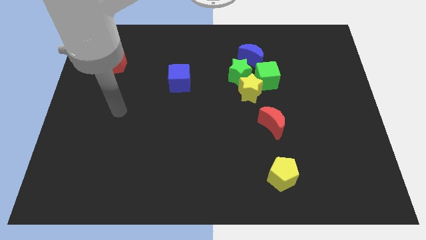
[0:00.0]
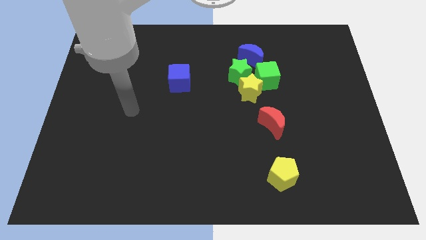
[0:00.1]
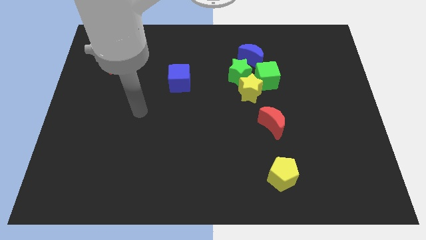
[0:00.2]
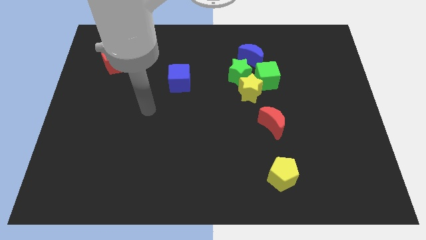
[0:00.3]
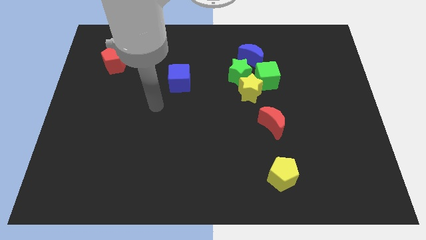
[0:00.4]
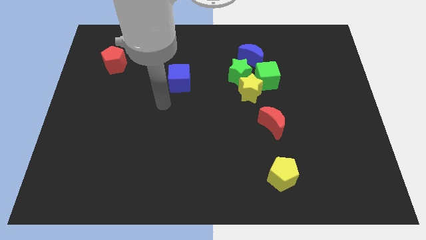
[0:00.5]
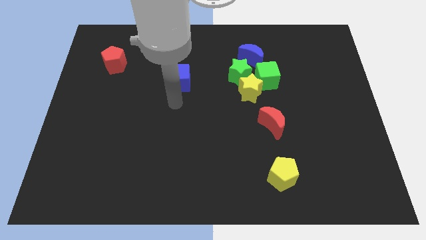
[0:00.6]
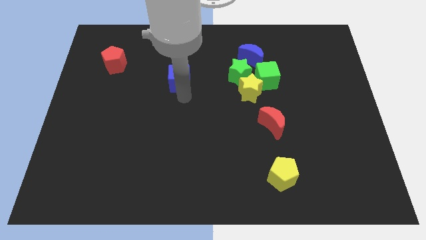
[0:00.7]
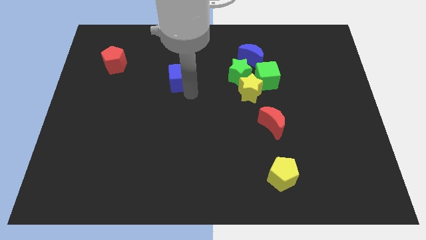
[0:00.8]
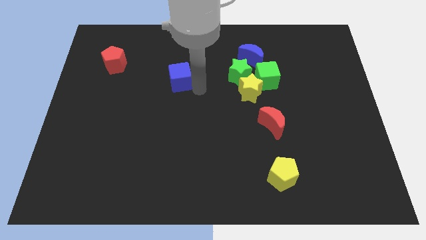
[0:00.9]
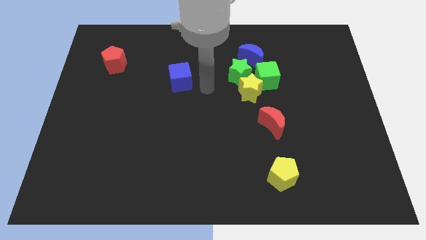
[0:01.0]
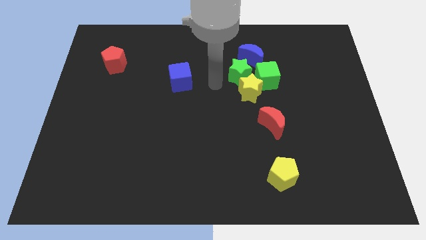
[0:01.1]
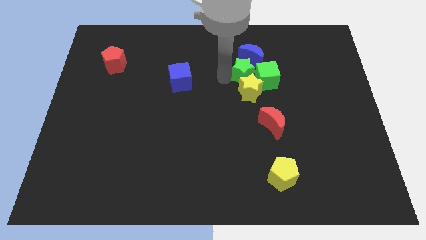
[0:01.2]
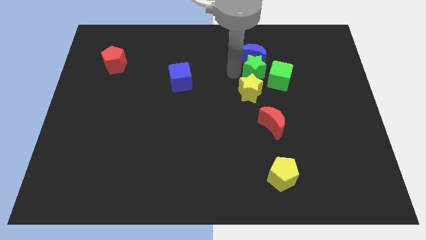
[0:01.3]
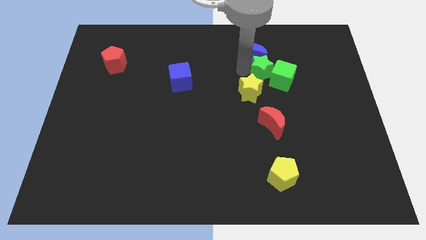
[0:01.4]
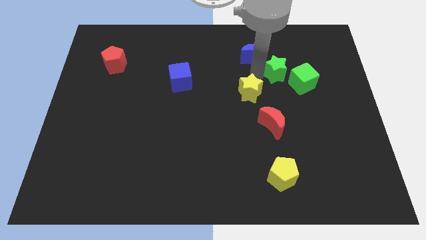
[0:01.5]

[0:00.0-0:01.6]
move the yellow star away from the green star and green cube

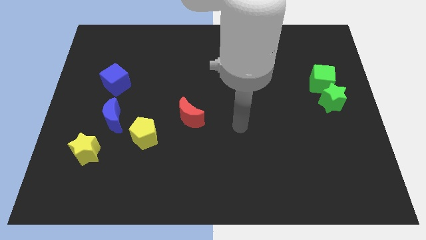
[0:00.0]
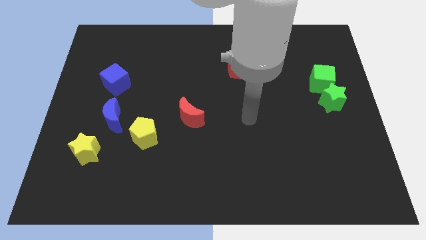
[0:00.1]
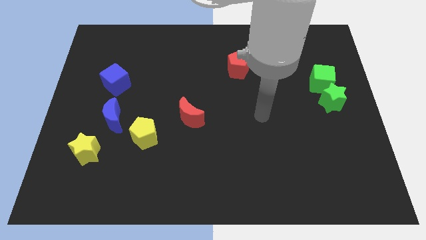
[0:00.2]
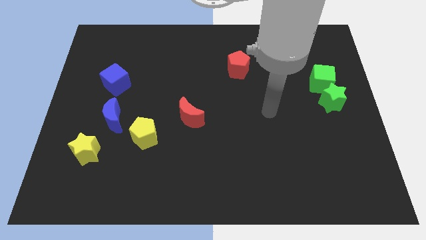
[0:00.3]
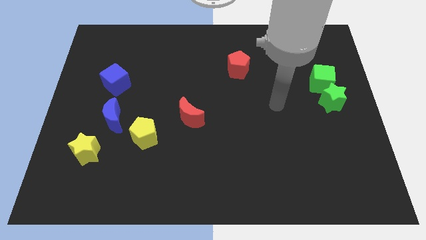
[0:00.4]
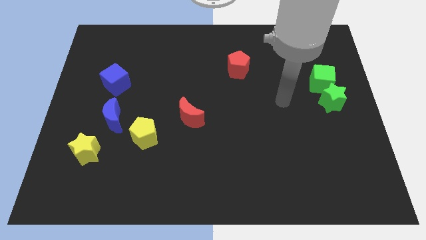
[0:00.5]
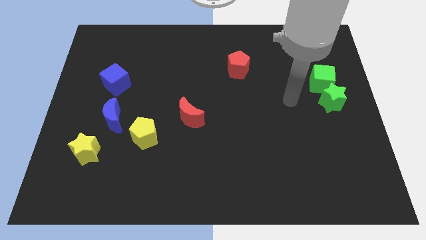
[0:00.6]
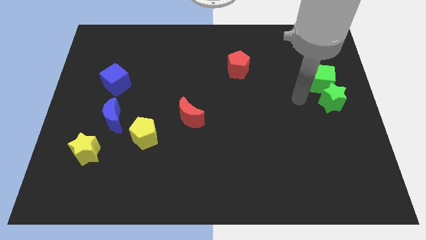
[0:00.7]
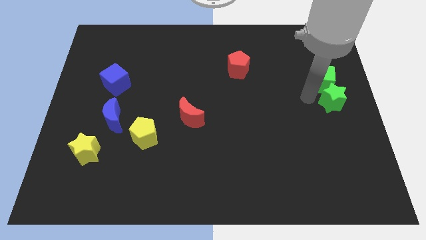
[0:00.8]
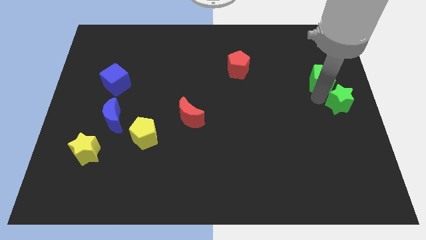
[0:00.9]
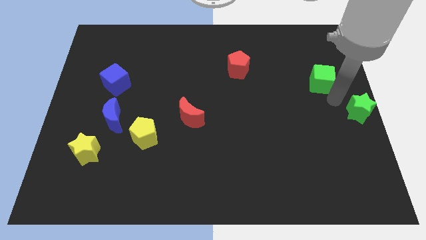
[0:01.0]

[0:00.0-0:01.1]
move the green cube away from the green star

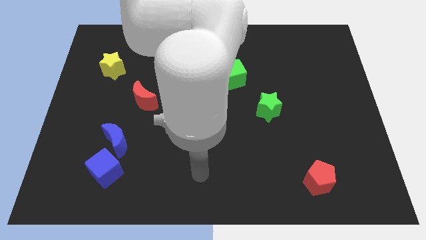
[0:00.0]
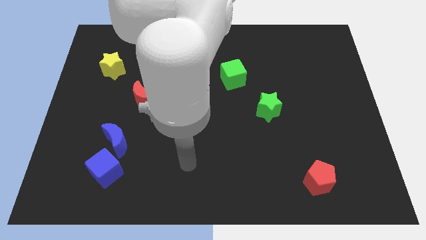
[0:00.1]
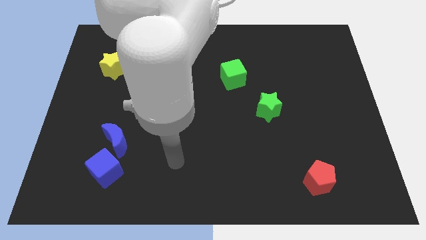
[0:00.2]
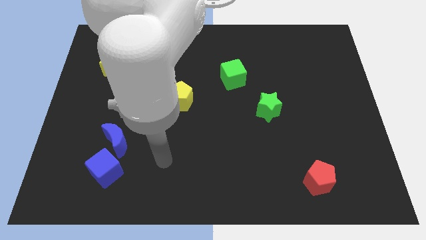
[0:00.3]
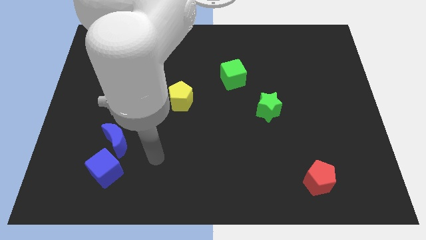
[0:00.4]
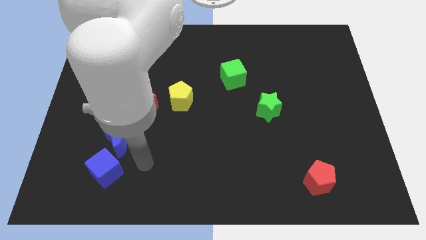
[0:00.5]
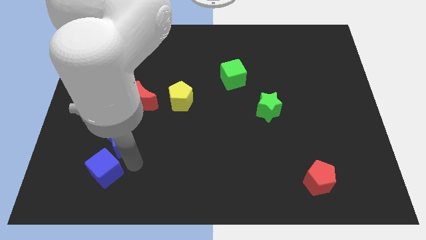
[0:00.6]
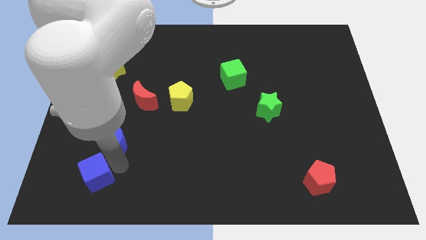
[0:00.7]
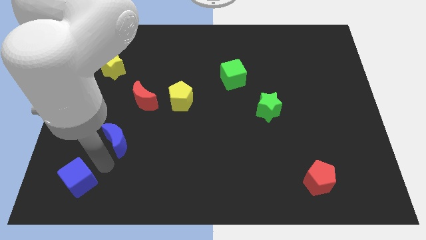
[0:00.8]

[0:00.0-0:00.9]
pull the blue moon apart from the blue cube

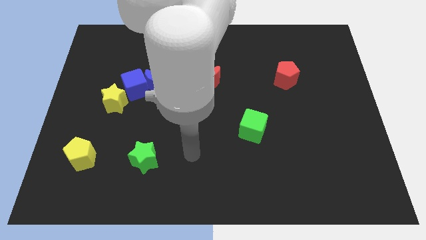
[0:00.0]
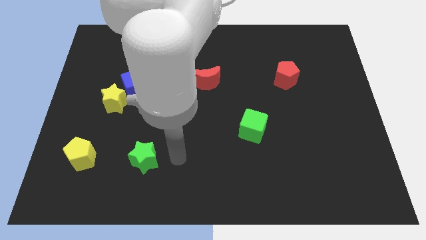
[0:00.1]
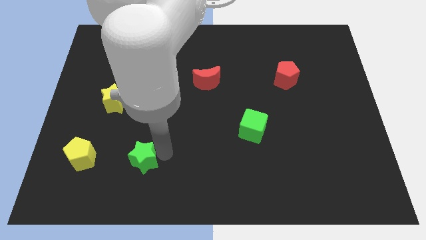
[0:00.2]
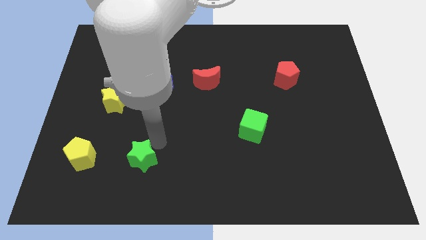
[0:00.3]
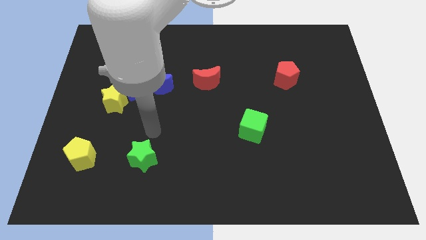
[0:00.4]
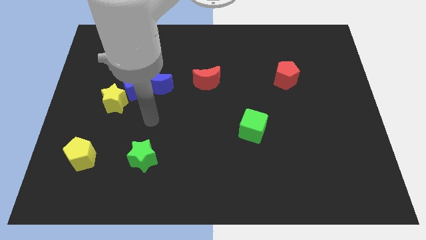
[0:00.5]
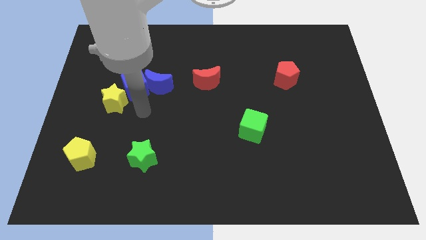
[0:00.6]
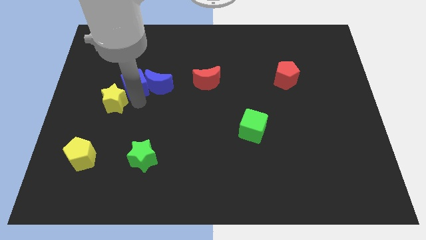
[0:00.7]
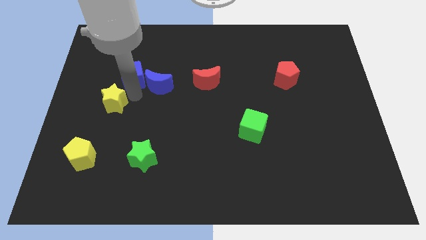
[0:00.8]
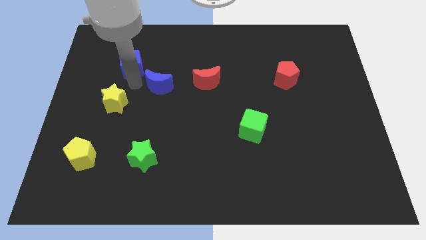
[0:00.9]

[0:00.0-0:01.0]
move the blue moon away from the blue cube

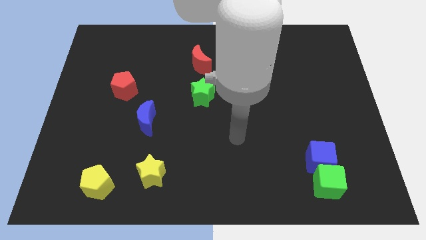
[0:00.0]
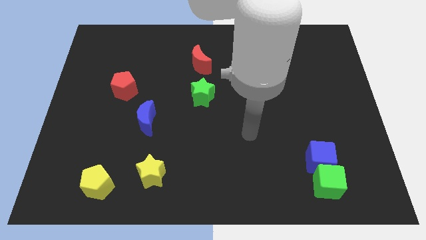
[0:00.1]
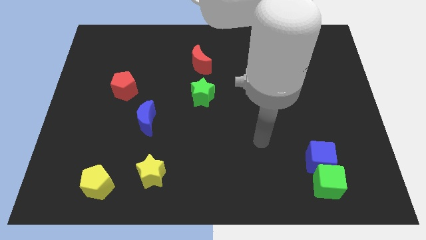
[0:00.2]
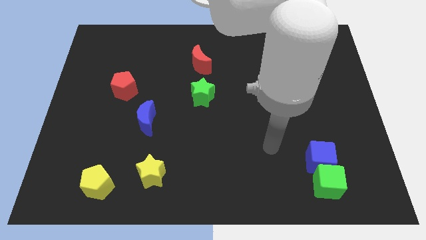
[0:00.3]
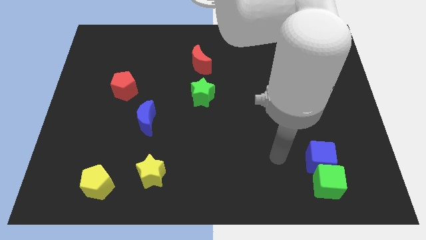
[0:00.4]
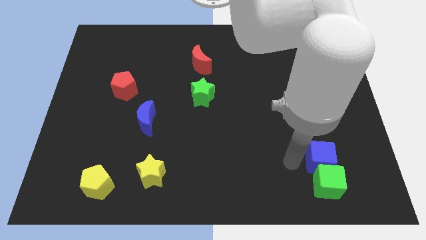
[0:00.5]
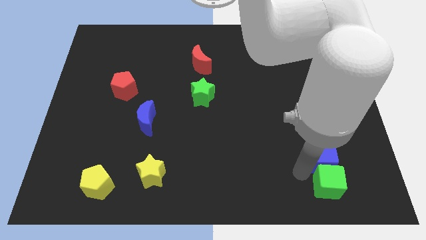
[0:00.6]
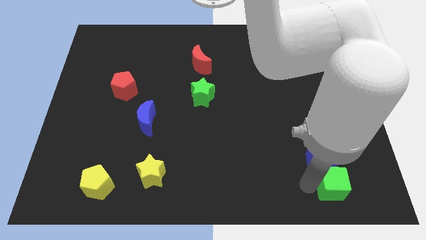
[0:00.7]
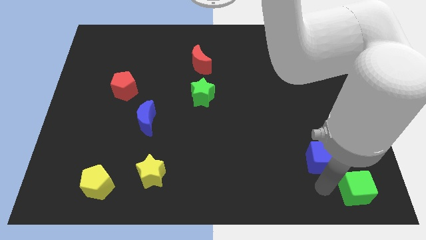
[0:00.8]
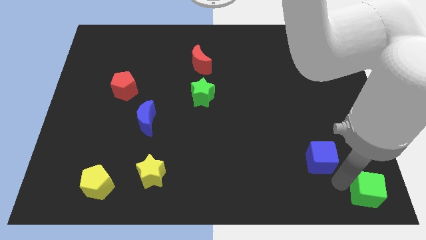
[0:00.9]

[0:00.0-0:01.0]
separate the blue cube from the green cube

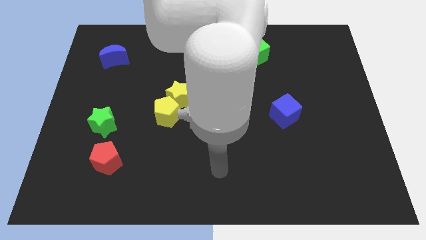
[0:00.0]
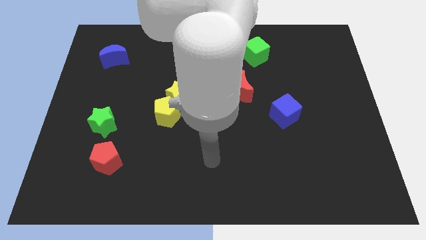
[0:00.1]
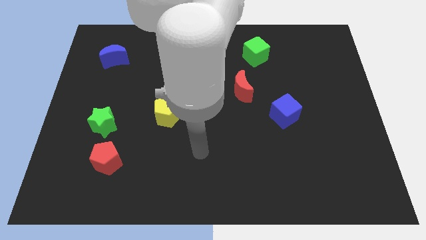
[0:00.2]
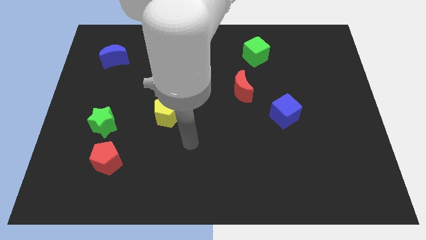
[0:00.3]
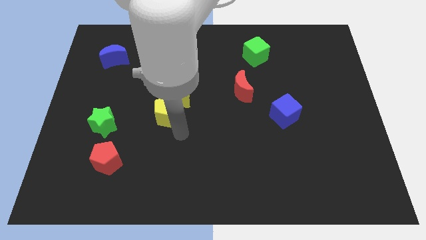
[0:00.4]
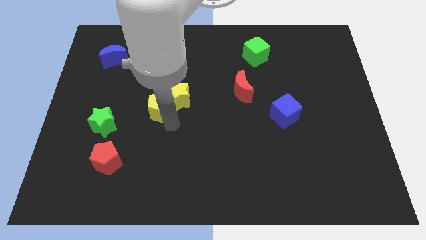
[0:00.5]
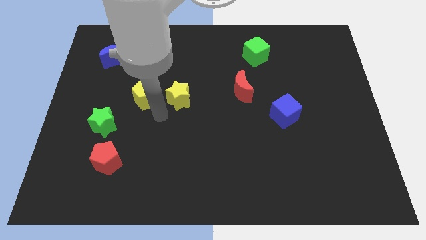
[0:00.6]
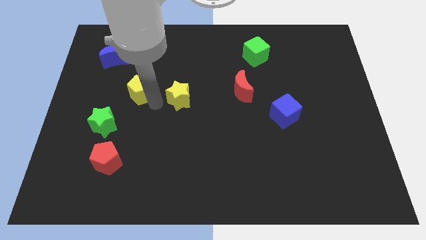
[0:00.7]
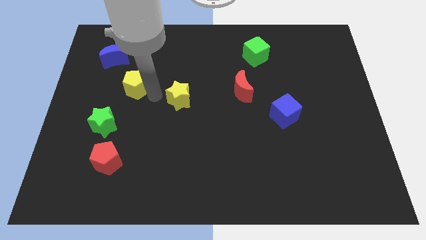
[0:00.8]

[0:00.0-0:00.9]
pull the yellow star apart from the yellow pentagon

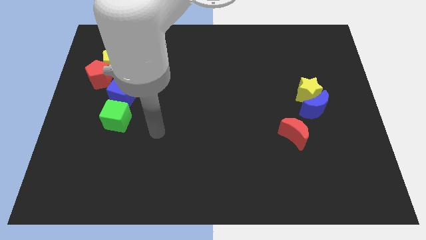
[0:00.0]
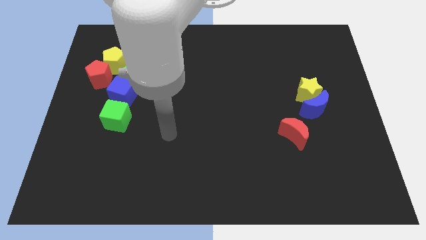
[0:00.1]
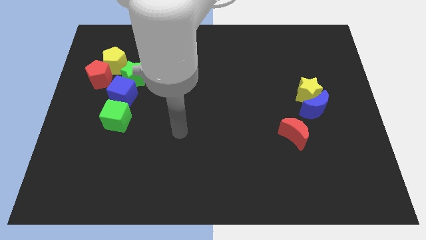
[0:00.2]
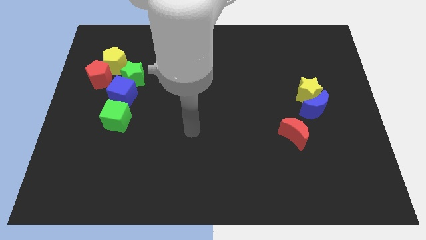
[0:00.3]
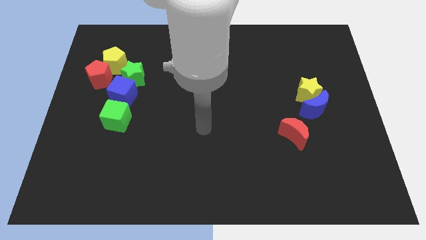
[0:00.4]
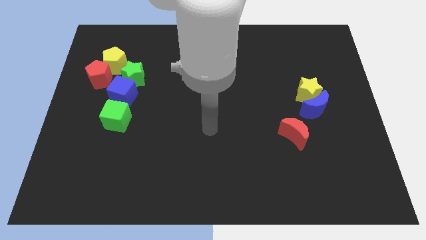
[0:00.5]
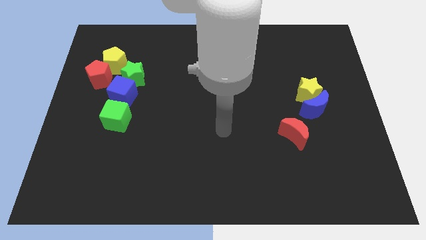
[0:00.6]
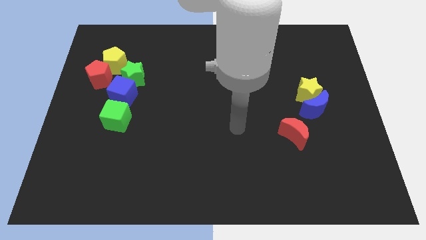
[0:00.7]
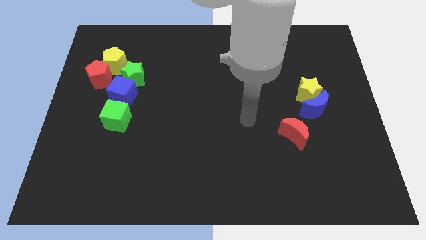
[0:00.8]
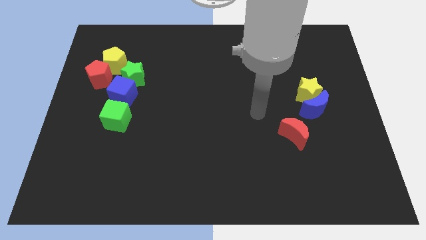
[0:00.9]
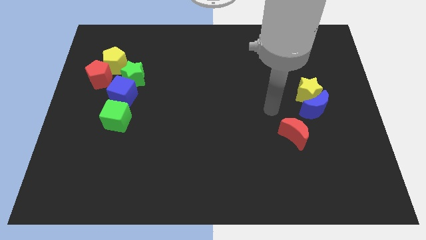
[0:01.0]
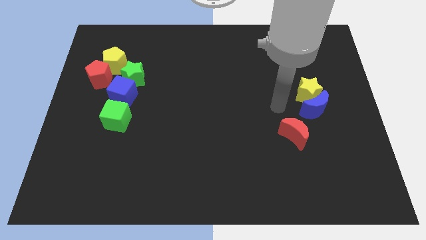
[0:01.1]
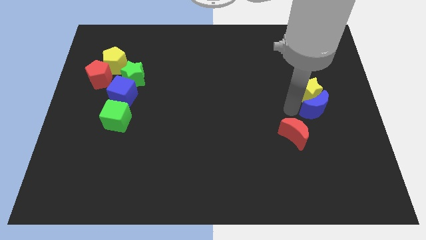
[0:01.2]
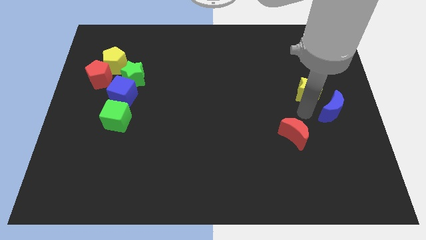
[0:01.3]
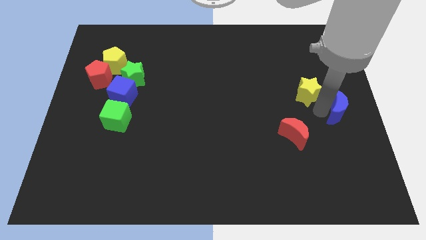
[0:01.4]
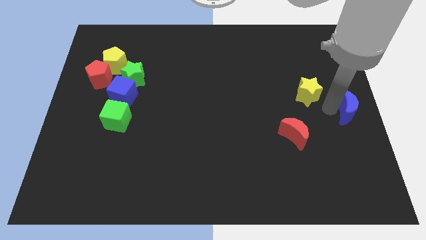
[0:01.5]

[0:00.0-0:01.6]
pull the yellow star apart from the blue moon

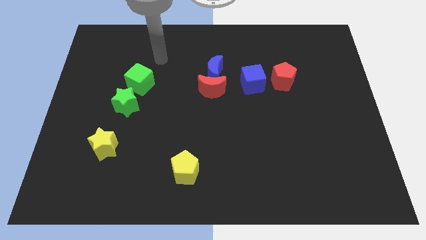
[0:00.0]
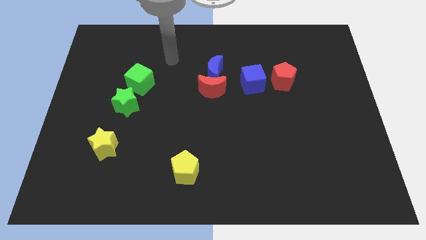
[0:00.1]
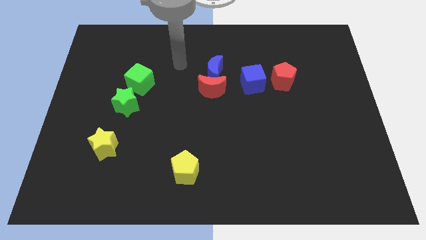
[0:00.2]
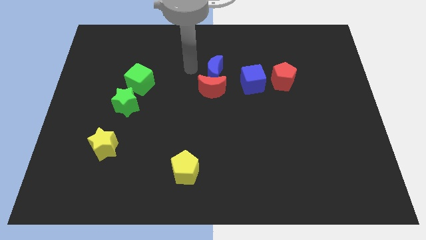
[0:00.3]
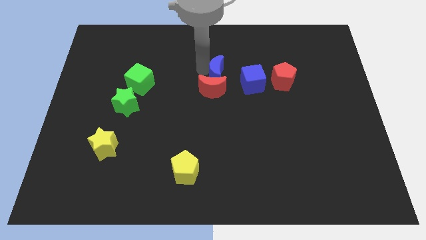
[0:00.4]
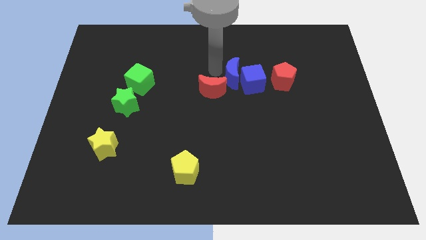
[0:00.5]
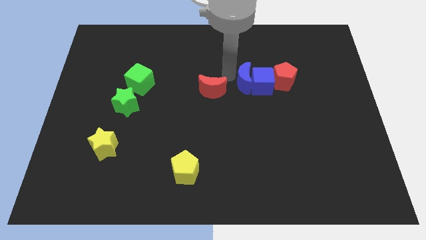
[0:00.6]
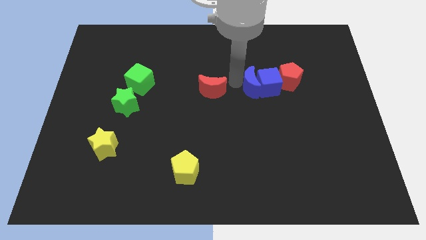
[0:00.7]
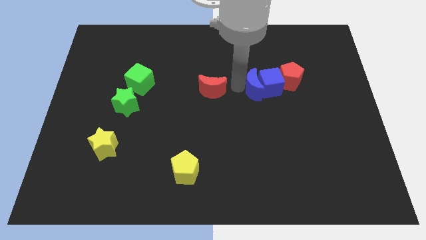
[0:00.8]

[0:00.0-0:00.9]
separate the red moon from the blue moon

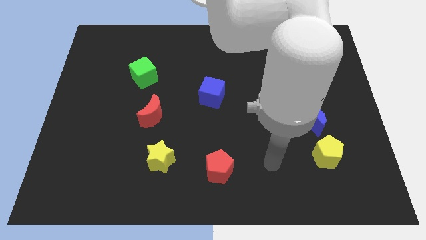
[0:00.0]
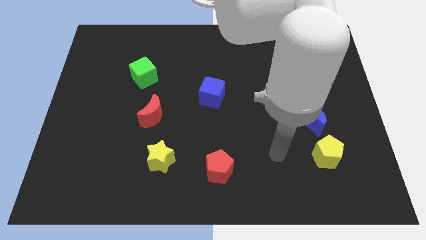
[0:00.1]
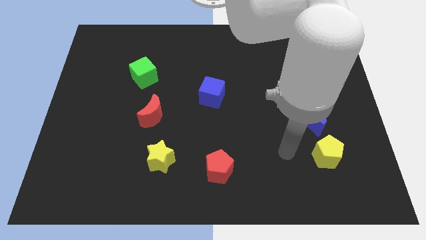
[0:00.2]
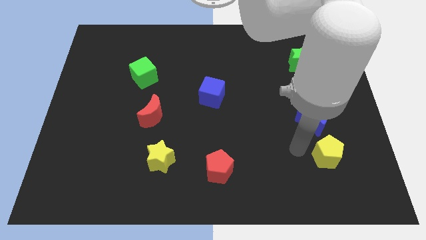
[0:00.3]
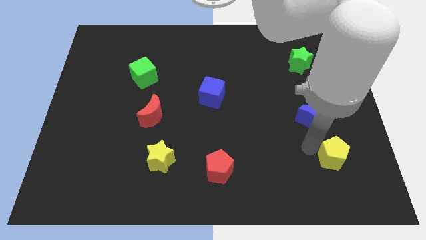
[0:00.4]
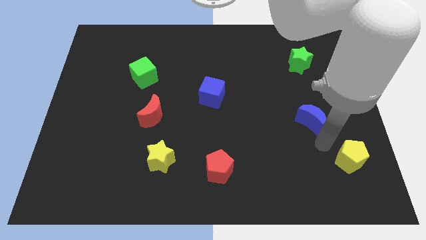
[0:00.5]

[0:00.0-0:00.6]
move the blue moon away from the yellow pentagon
